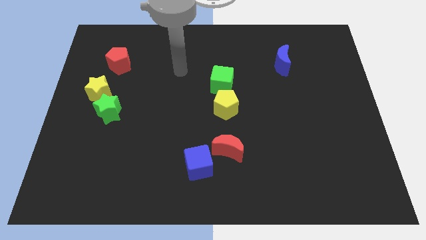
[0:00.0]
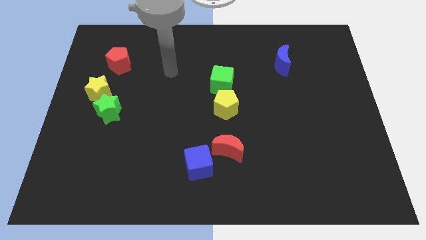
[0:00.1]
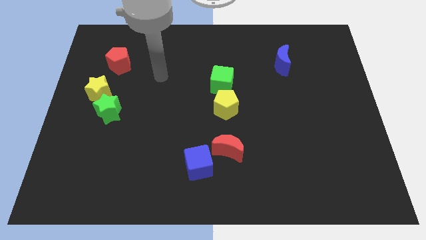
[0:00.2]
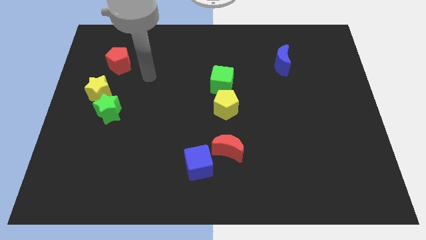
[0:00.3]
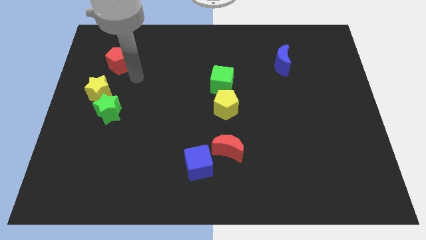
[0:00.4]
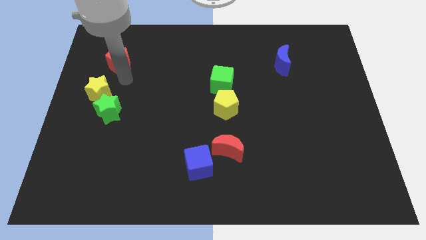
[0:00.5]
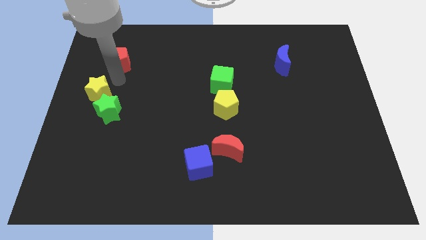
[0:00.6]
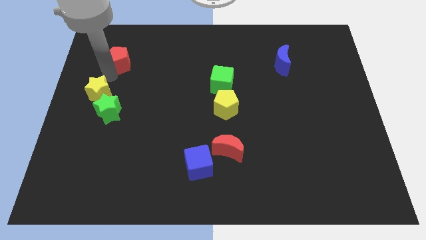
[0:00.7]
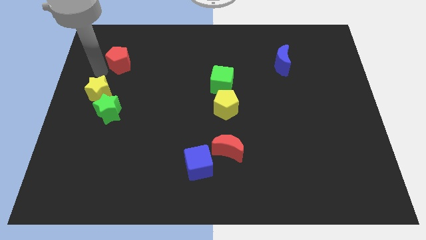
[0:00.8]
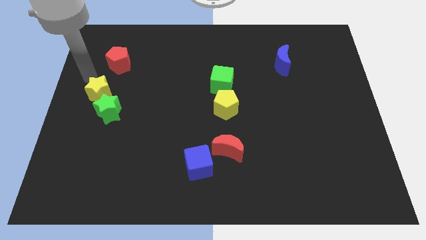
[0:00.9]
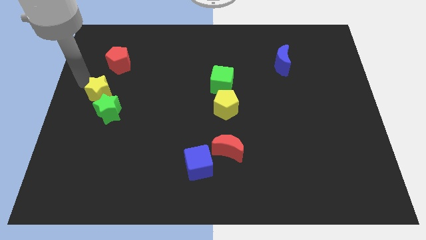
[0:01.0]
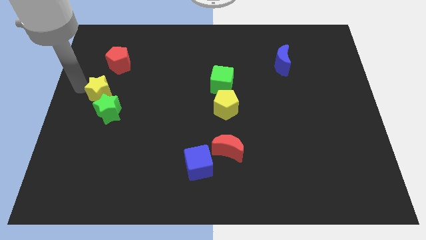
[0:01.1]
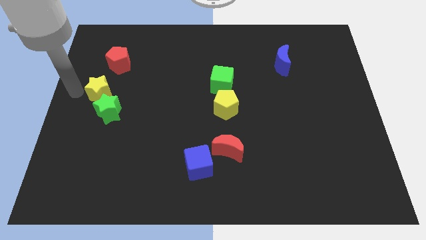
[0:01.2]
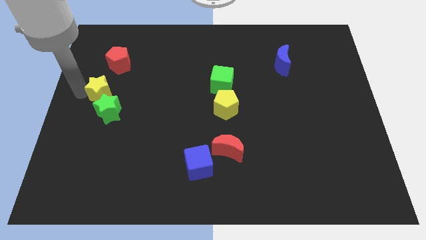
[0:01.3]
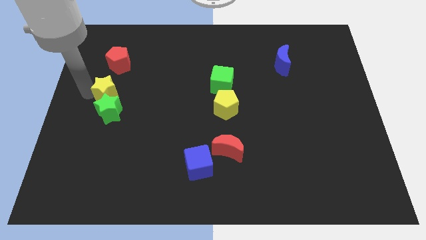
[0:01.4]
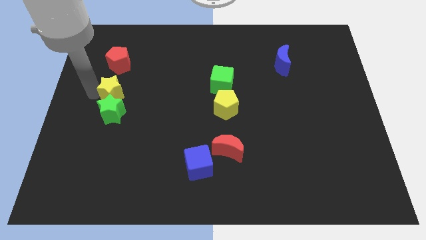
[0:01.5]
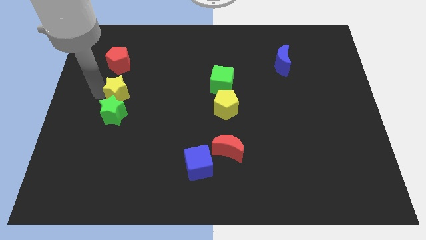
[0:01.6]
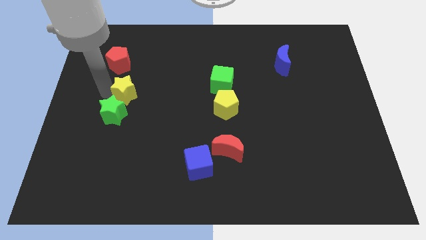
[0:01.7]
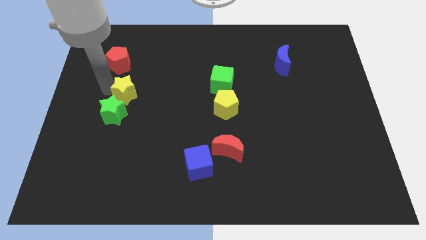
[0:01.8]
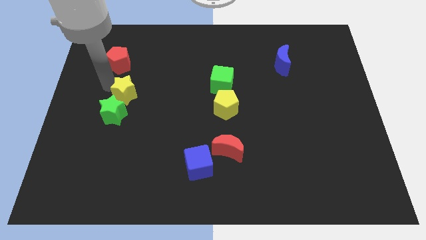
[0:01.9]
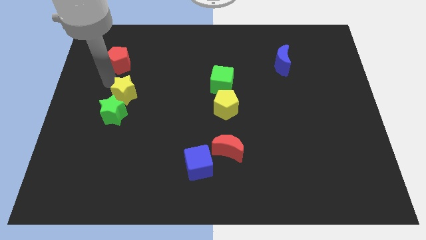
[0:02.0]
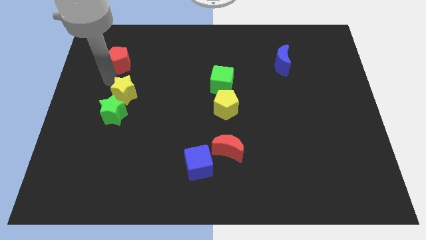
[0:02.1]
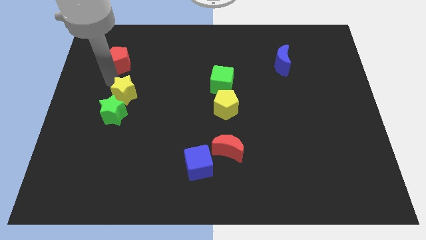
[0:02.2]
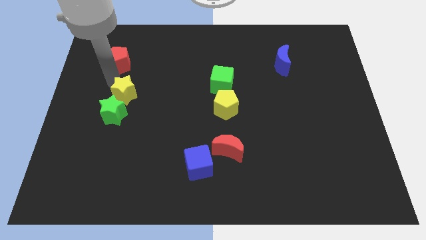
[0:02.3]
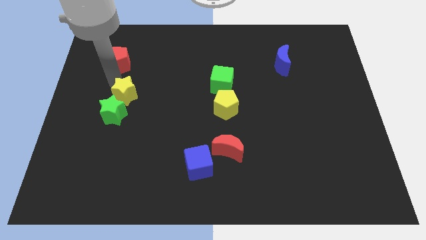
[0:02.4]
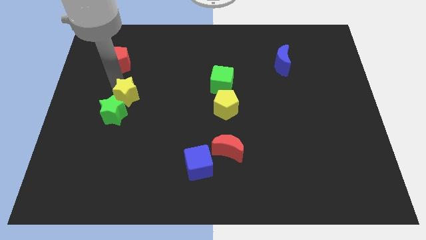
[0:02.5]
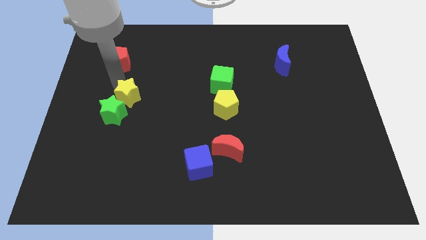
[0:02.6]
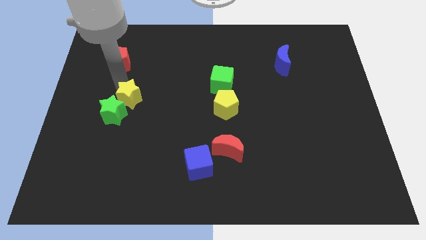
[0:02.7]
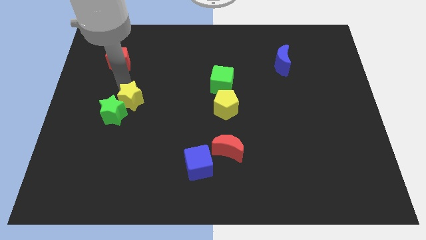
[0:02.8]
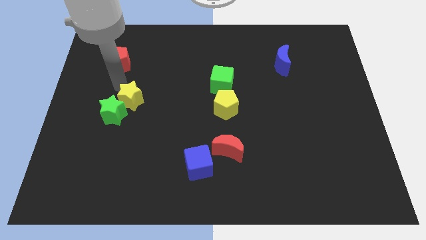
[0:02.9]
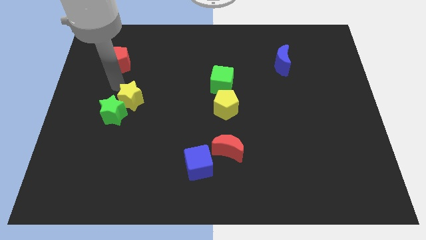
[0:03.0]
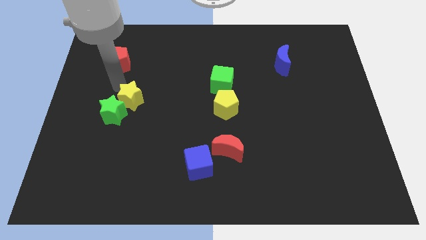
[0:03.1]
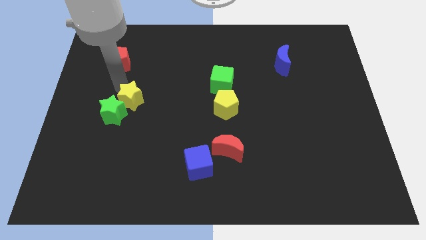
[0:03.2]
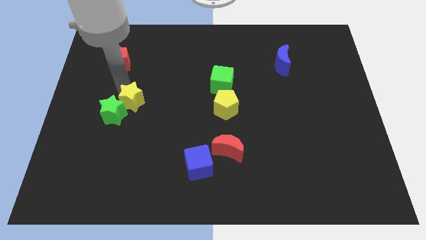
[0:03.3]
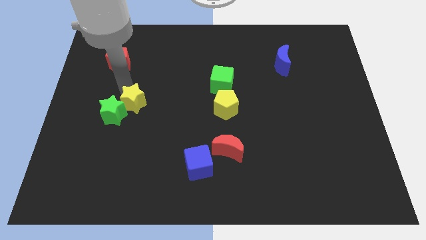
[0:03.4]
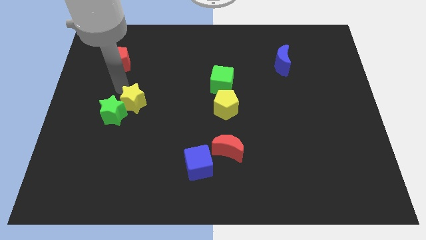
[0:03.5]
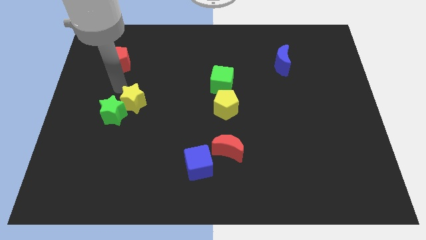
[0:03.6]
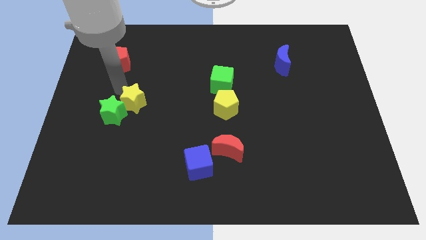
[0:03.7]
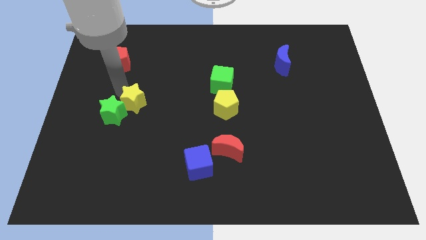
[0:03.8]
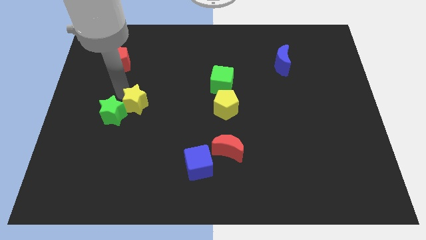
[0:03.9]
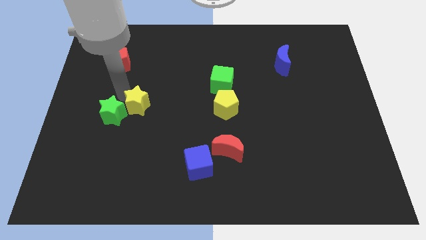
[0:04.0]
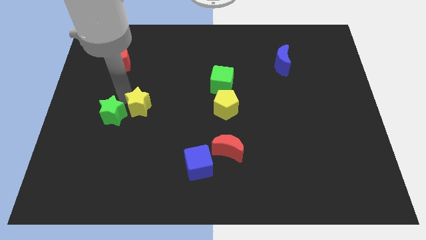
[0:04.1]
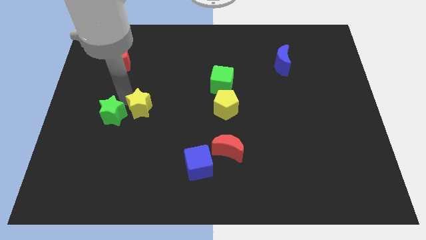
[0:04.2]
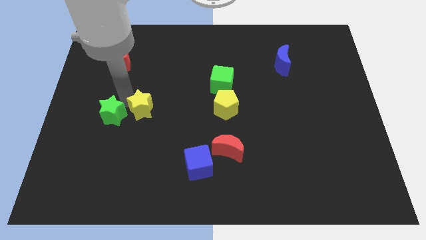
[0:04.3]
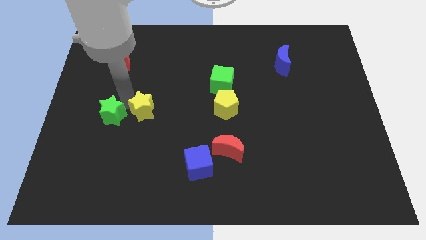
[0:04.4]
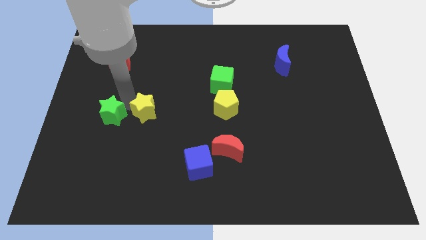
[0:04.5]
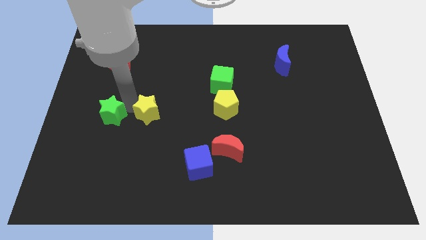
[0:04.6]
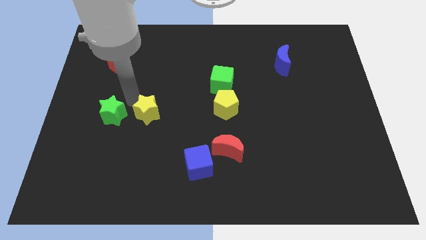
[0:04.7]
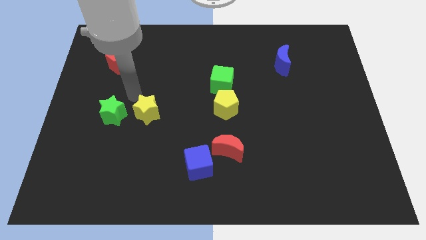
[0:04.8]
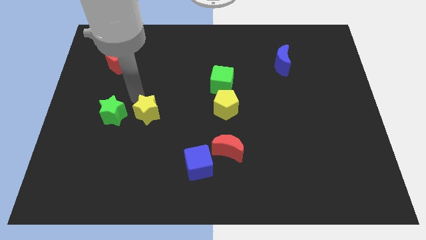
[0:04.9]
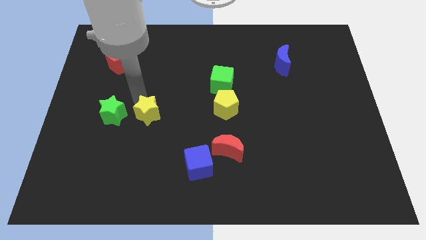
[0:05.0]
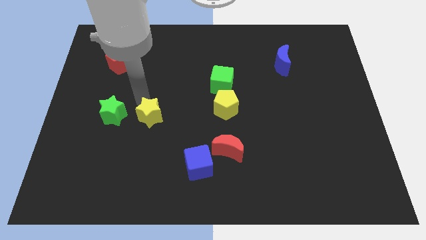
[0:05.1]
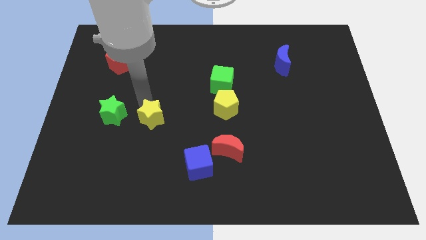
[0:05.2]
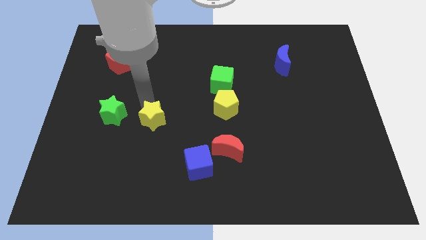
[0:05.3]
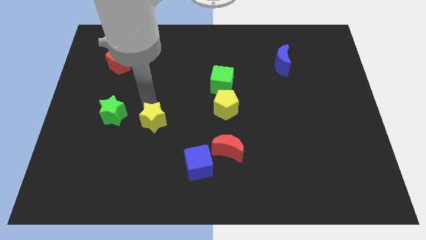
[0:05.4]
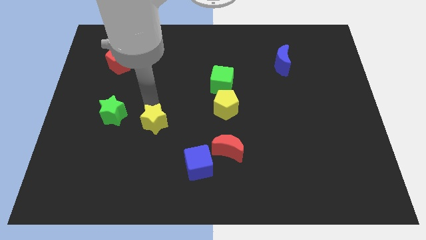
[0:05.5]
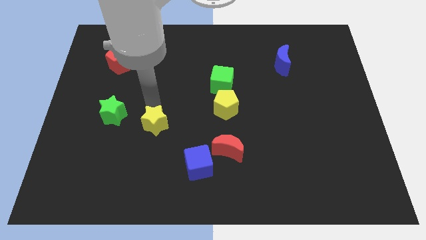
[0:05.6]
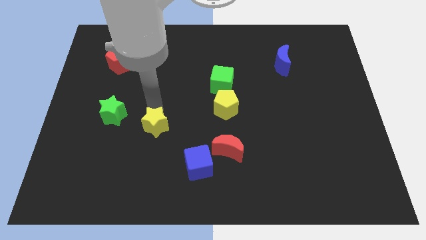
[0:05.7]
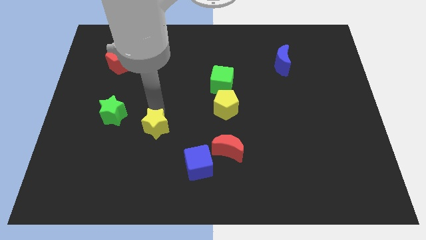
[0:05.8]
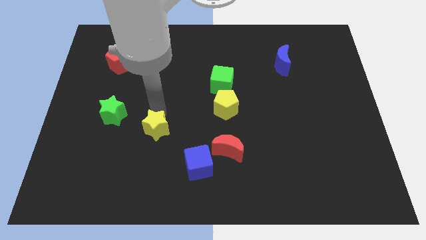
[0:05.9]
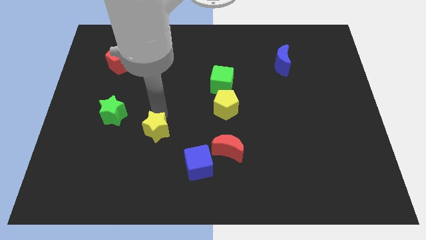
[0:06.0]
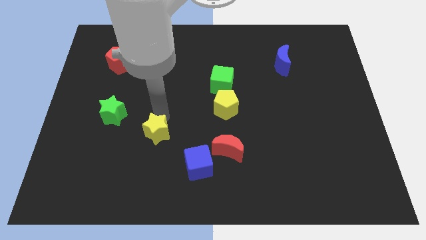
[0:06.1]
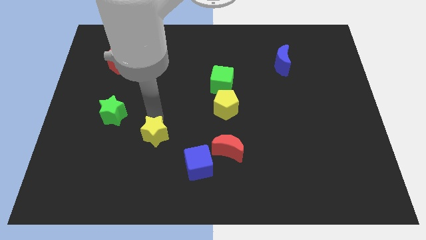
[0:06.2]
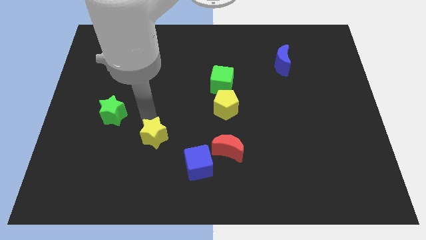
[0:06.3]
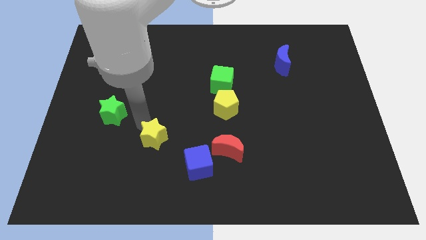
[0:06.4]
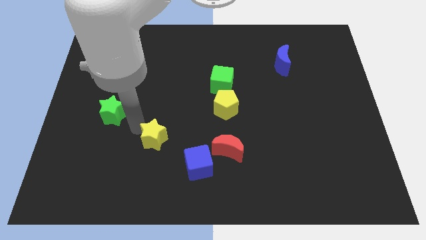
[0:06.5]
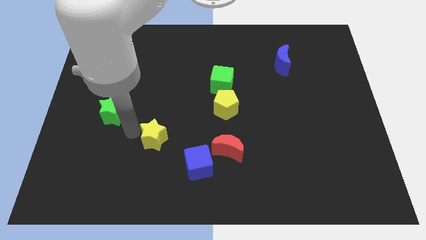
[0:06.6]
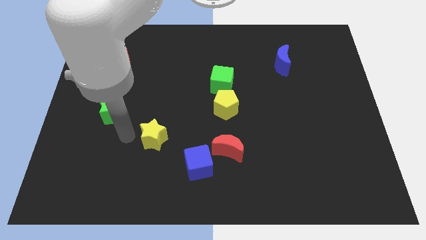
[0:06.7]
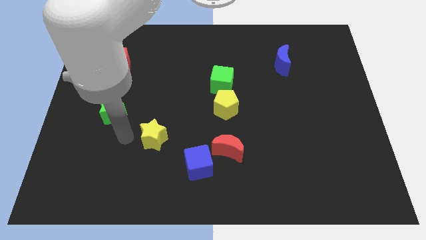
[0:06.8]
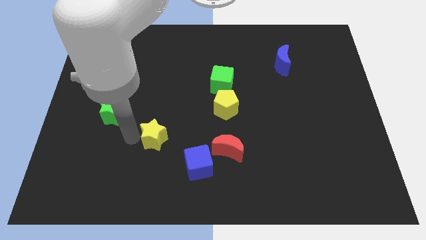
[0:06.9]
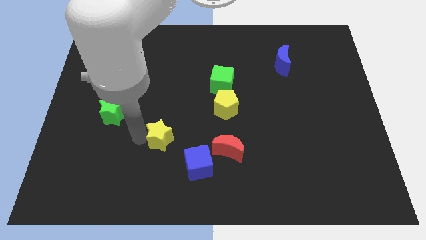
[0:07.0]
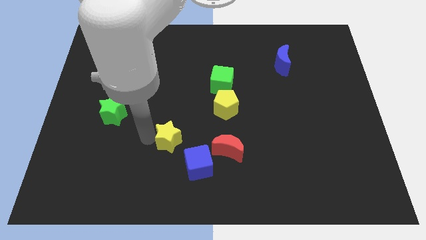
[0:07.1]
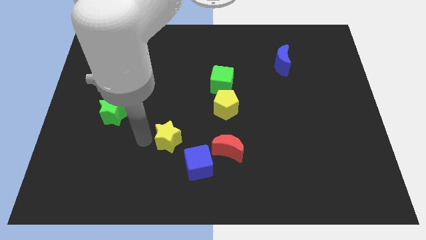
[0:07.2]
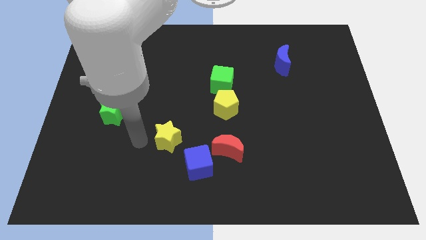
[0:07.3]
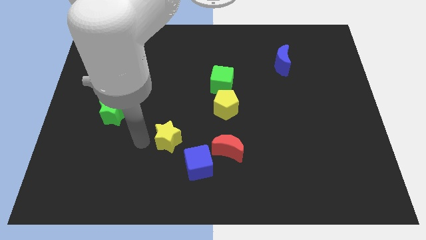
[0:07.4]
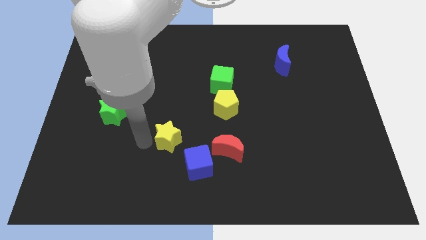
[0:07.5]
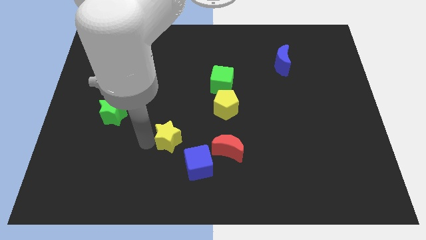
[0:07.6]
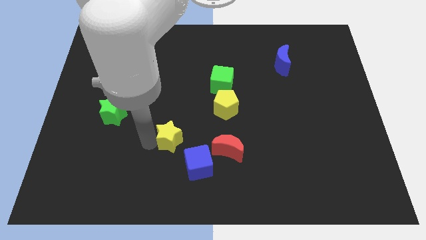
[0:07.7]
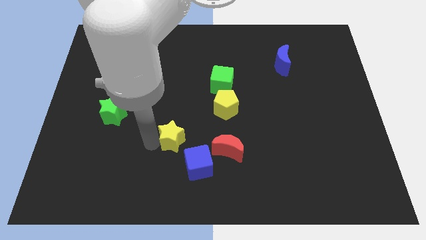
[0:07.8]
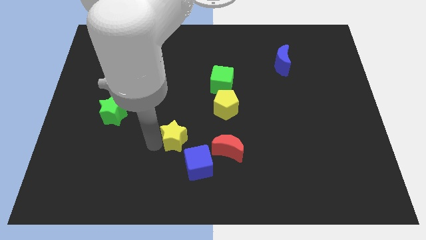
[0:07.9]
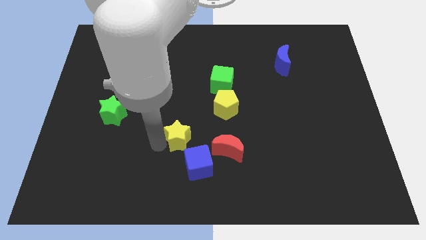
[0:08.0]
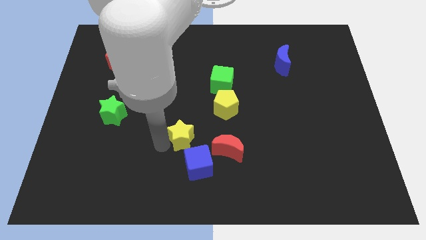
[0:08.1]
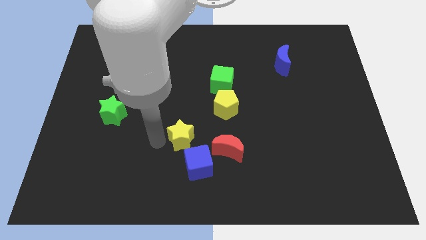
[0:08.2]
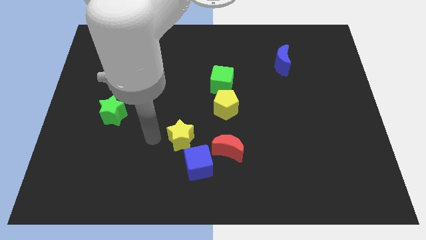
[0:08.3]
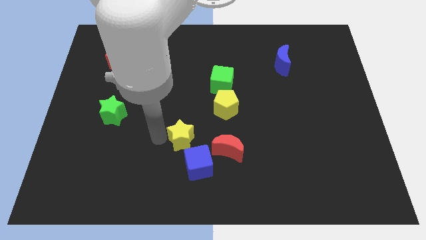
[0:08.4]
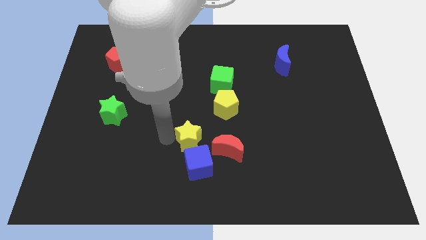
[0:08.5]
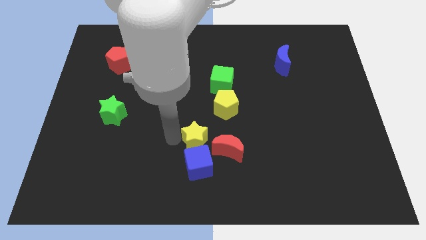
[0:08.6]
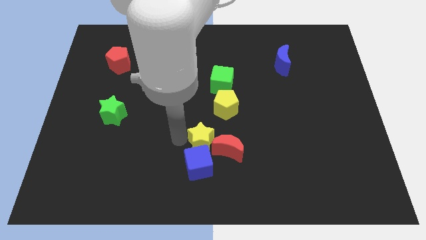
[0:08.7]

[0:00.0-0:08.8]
slide the yellow star to the red moon
